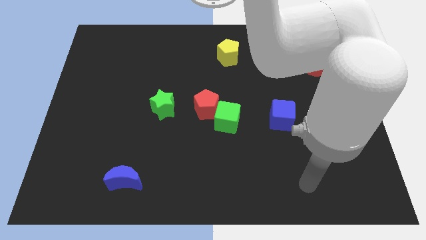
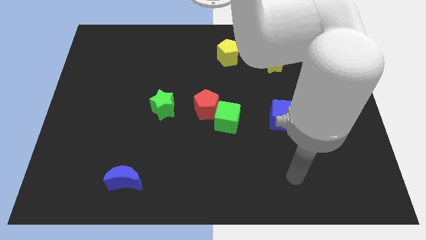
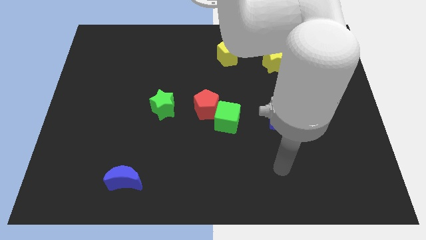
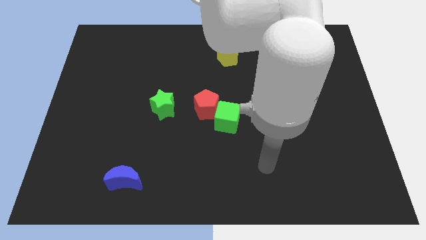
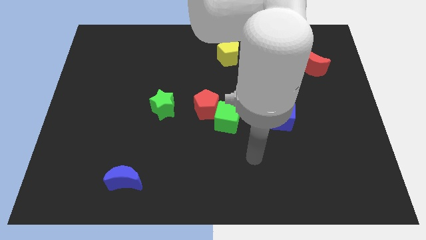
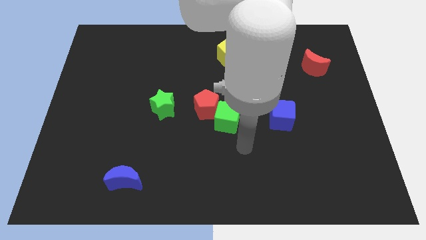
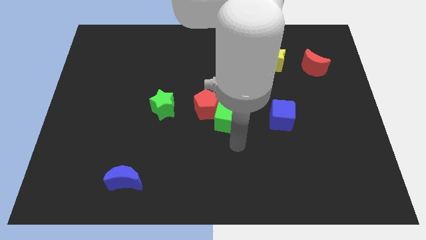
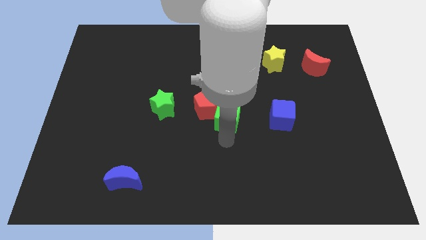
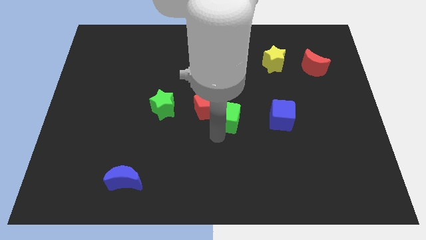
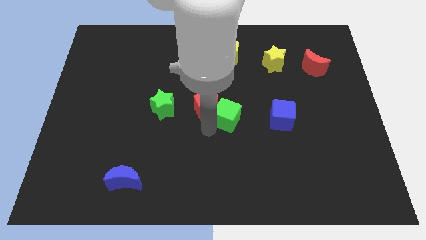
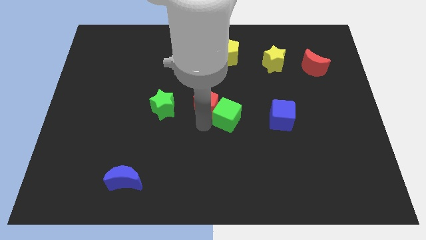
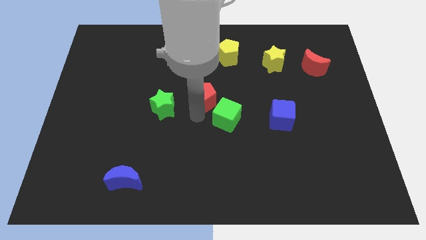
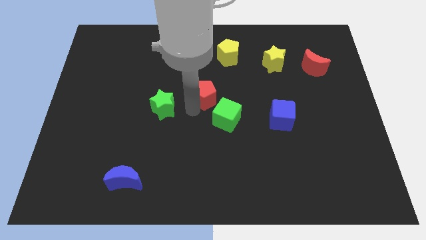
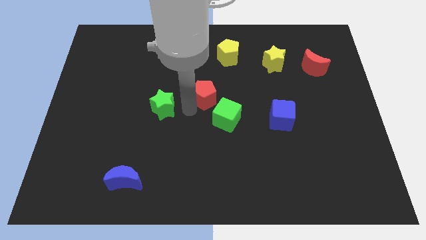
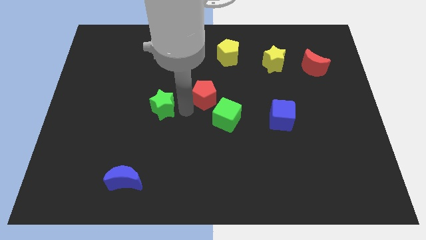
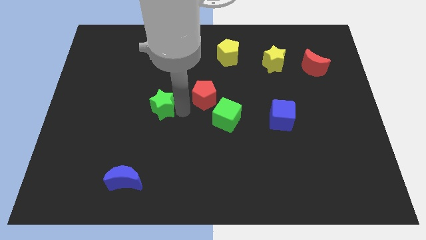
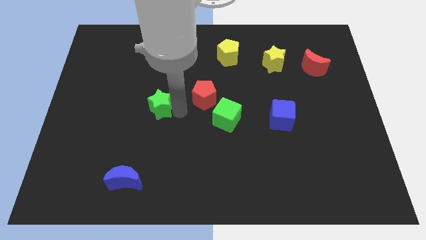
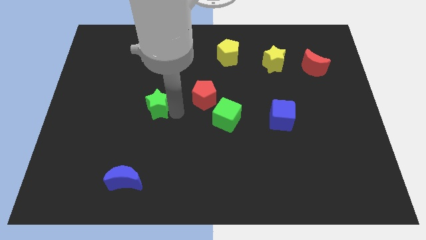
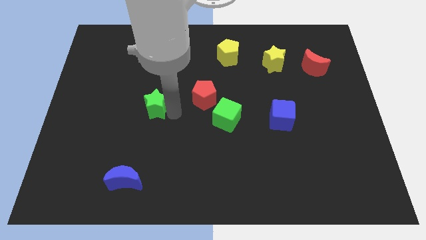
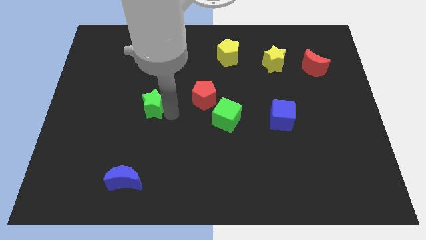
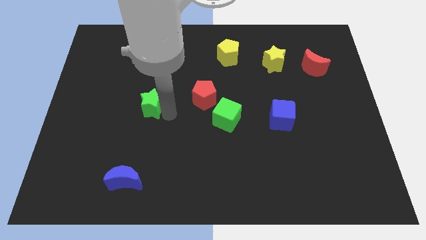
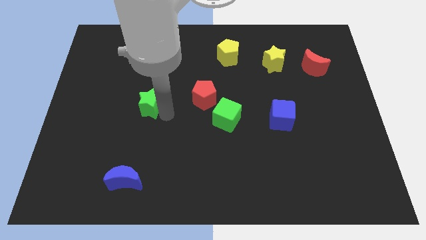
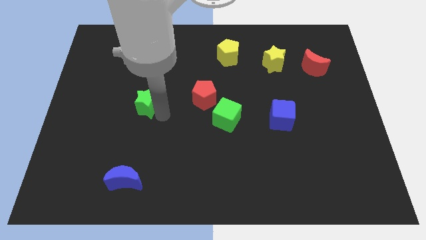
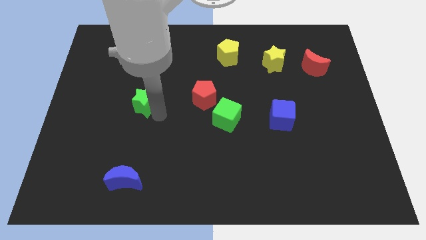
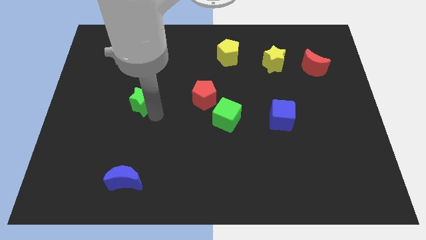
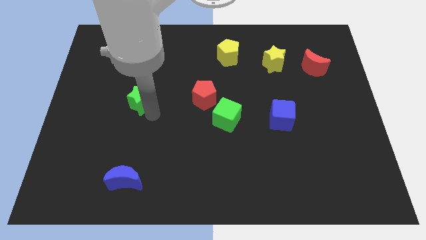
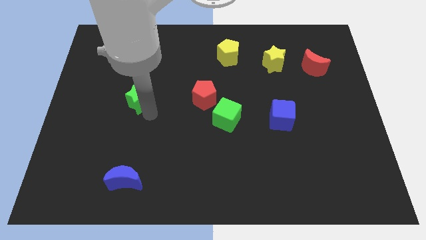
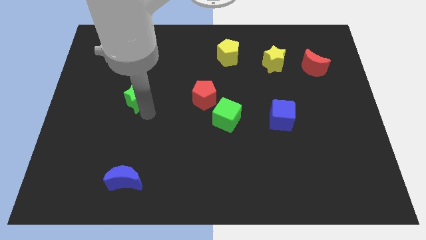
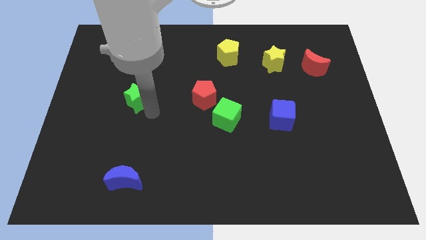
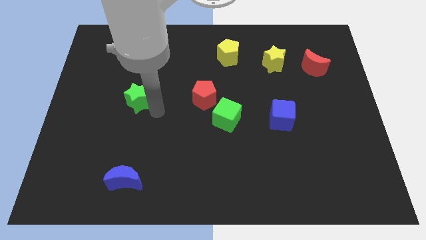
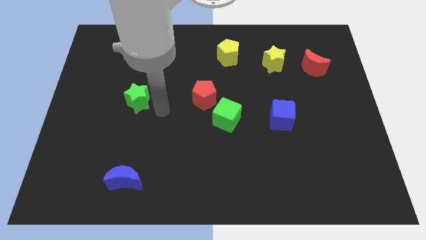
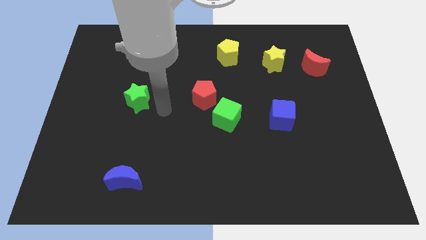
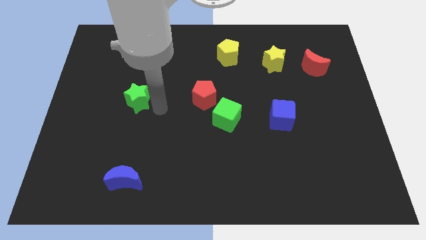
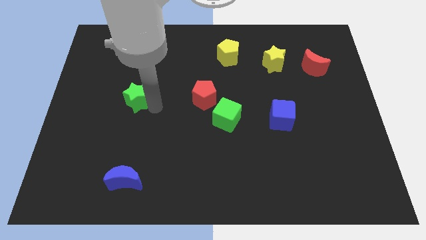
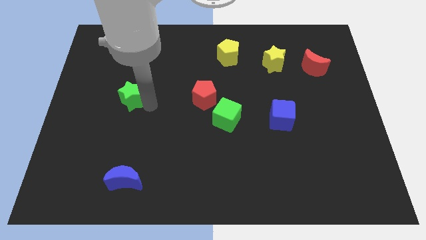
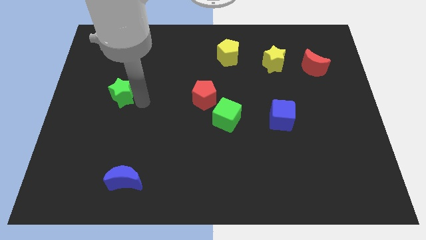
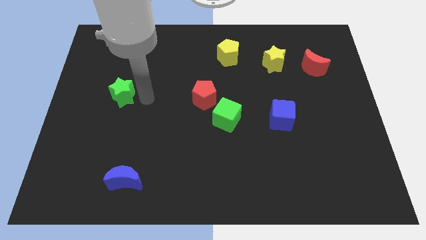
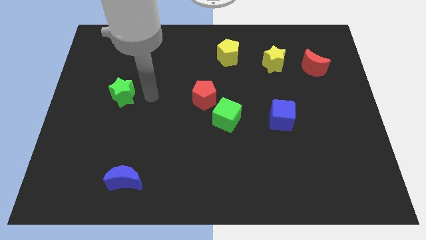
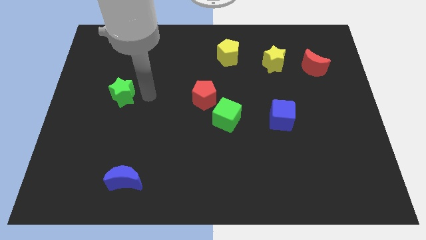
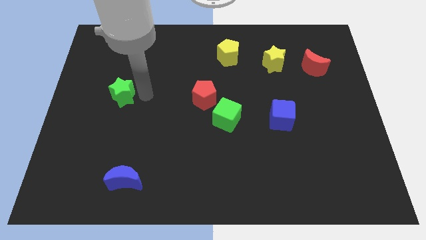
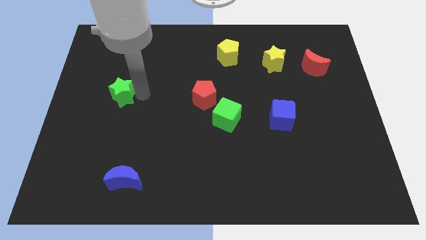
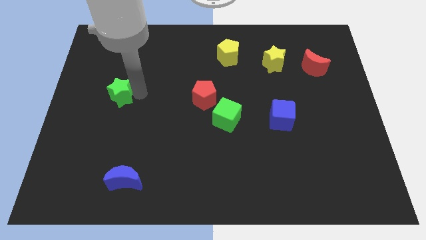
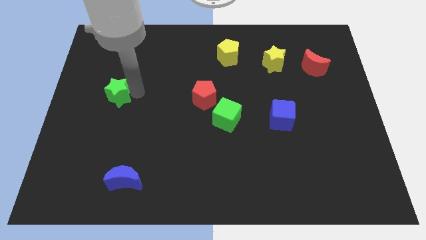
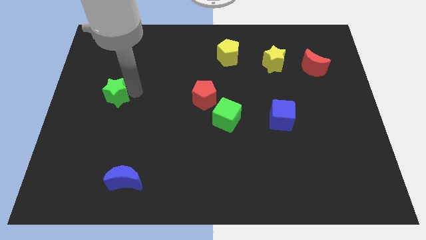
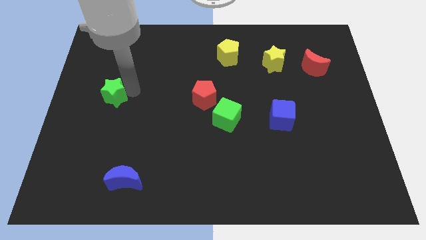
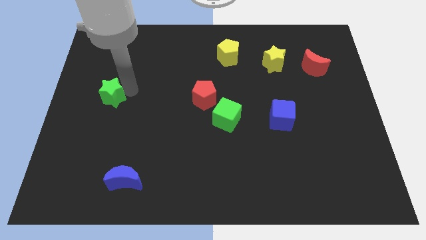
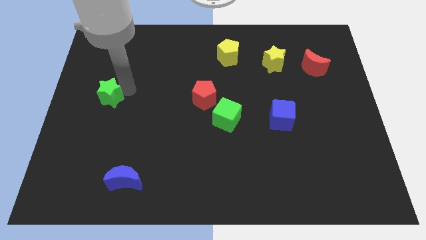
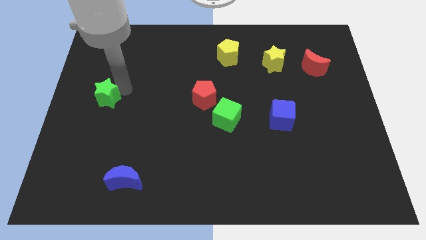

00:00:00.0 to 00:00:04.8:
push the green star to the center left

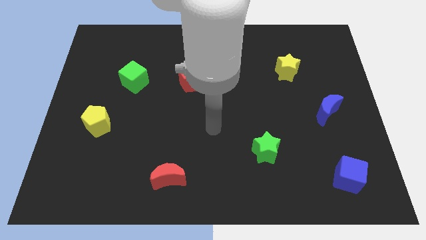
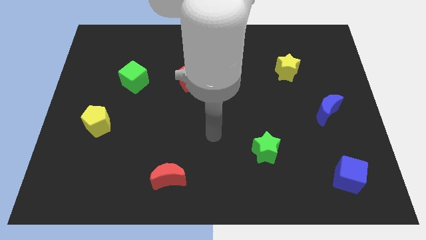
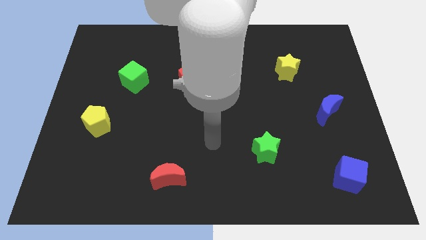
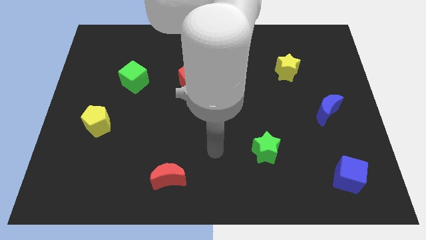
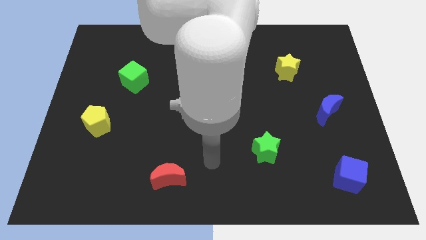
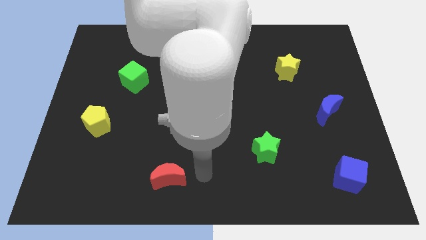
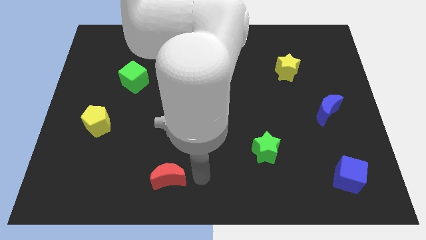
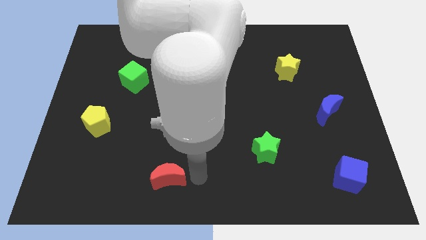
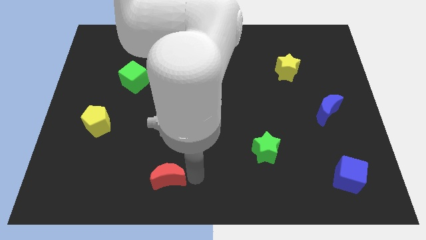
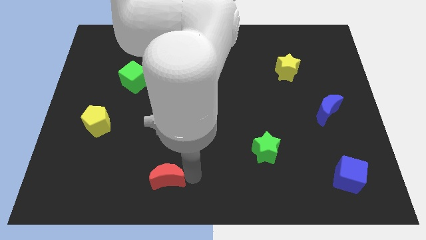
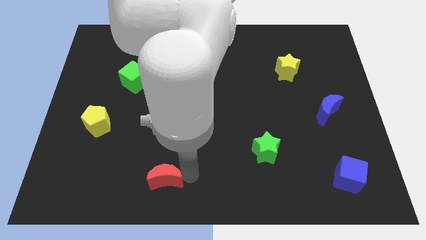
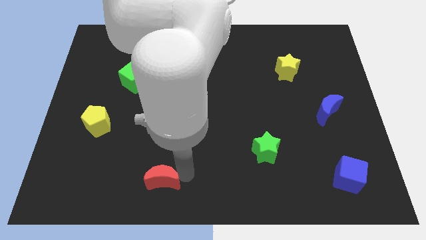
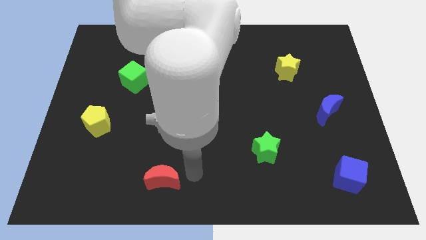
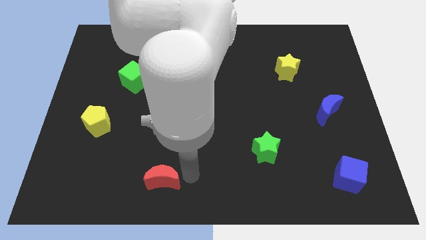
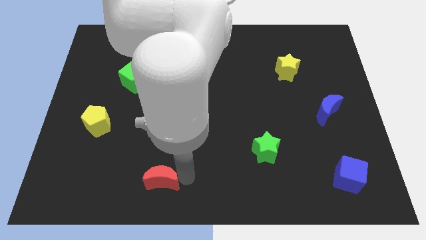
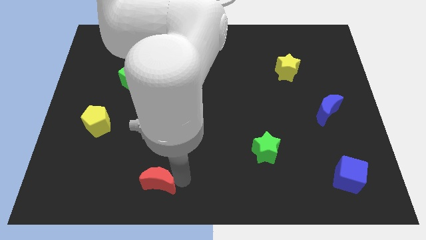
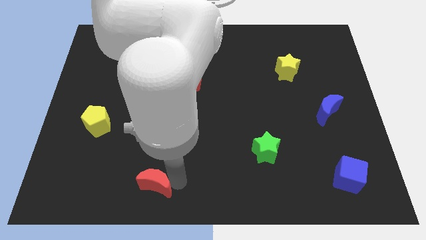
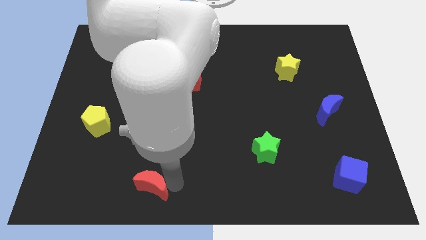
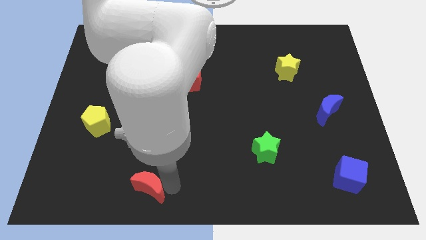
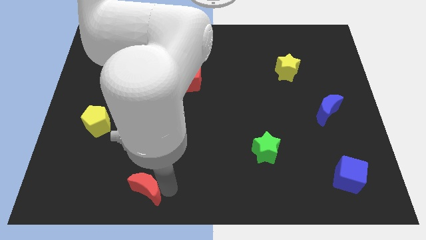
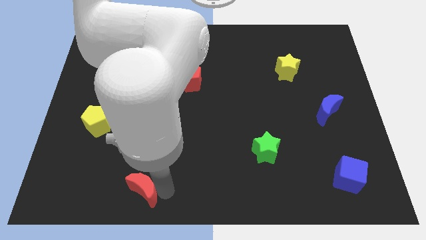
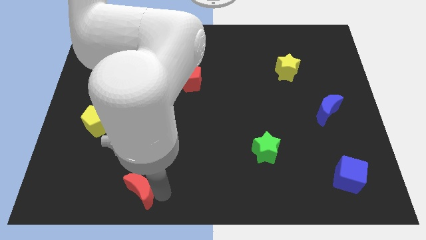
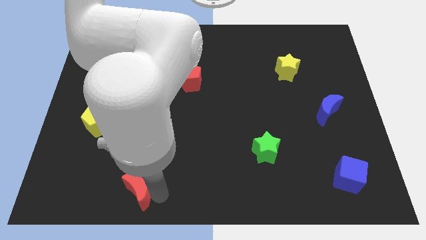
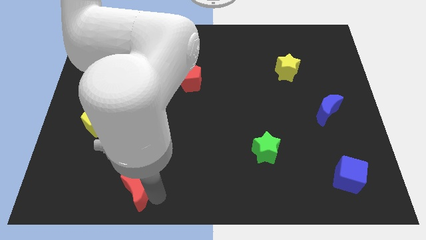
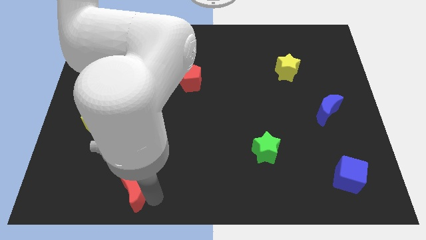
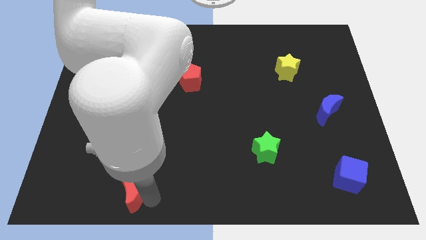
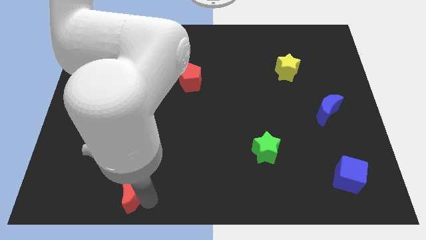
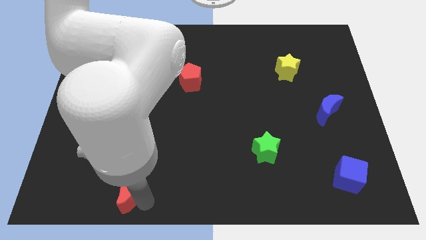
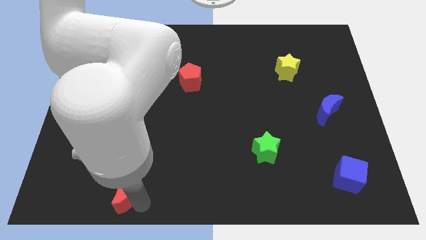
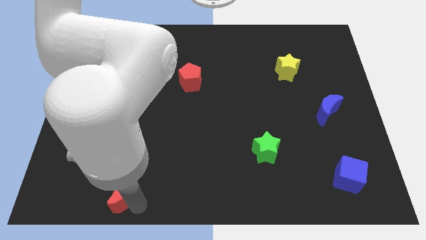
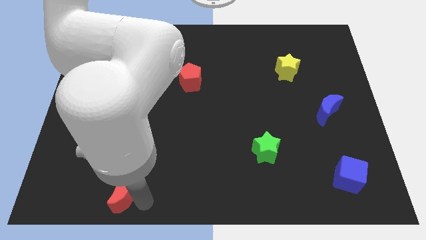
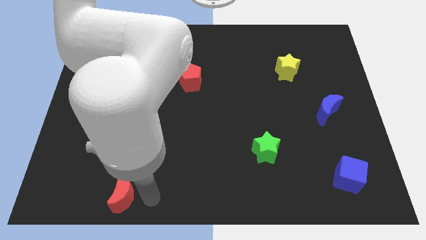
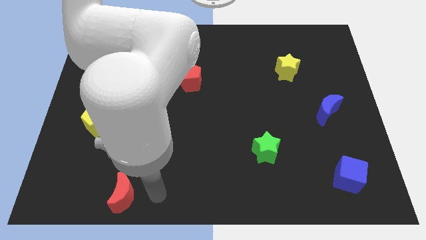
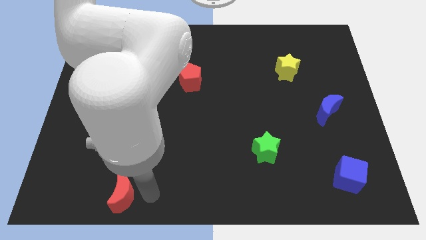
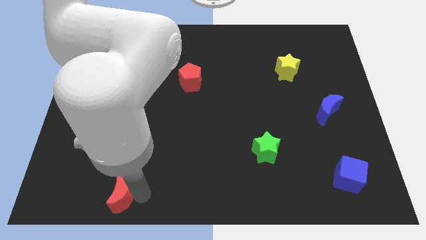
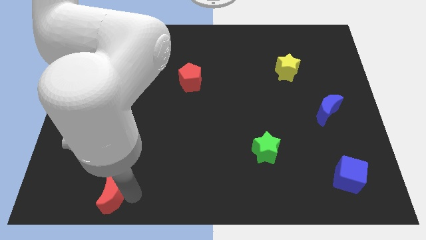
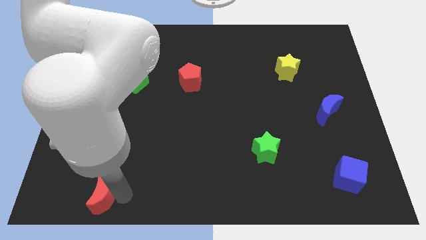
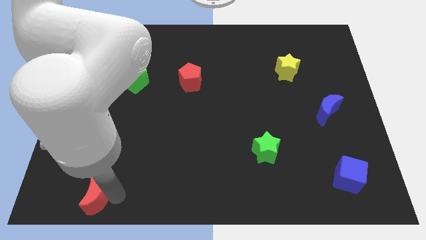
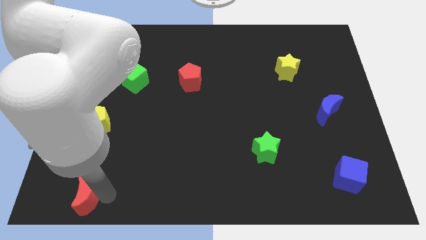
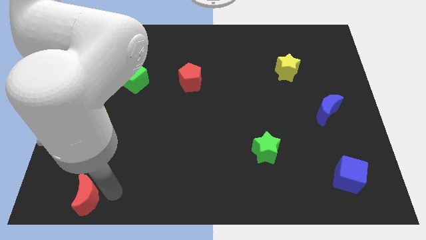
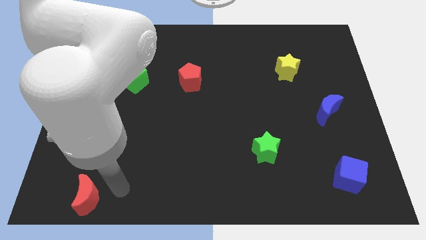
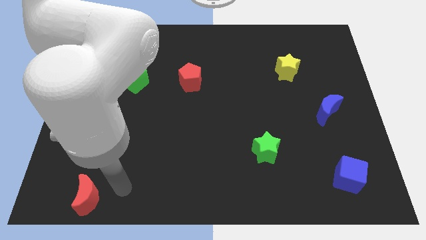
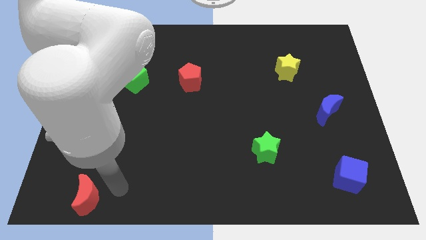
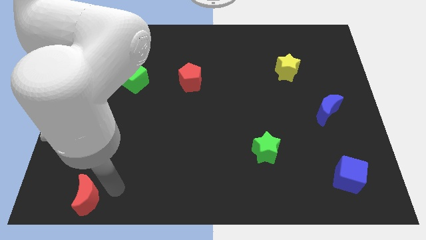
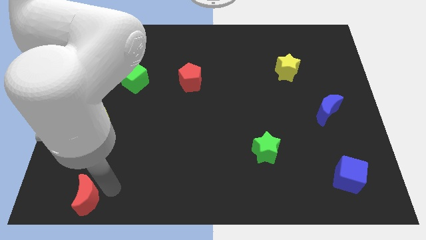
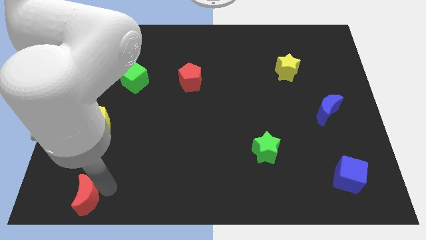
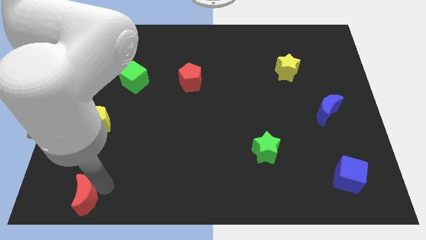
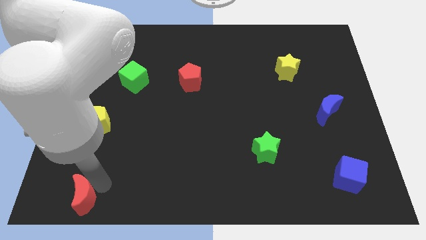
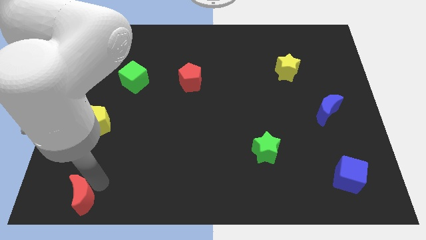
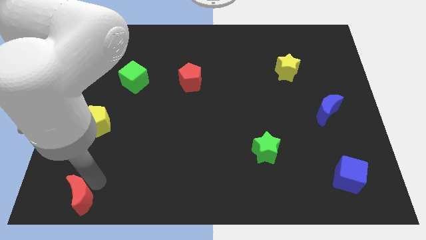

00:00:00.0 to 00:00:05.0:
move the red moon to the bottom left of the board
